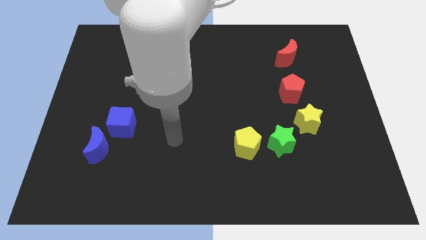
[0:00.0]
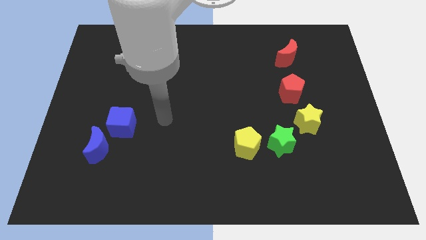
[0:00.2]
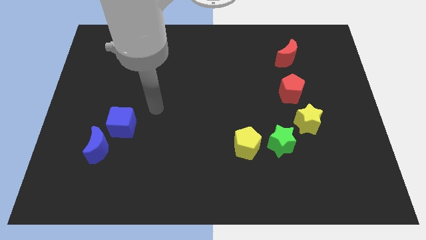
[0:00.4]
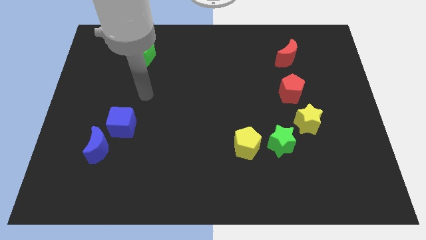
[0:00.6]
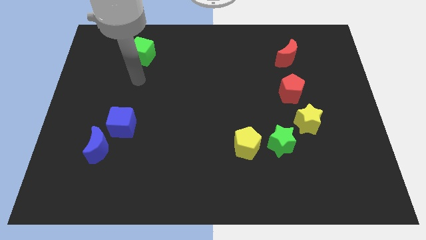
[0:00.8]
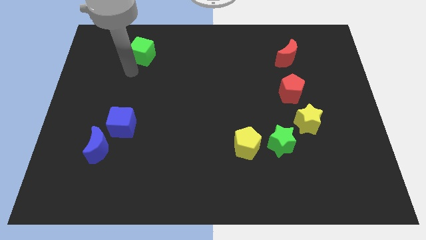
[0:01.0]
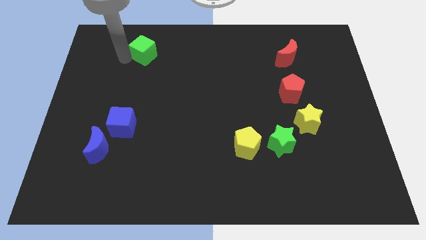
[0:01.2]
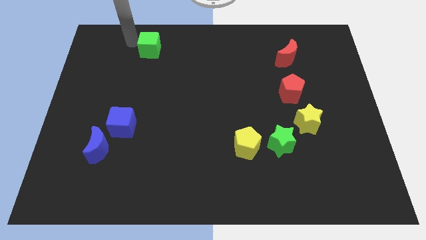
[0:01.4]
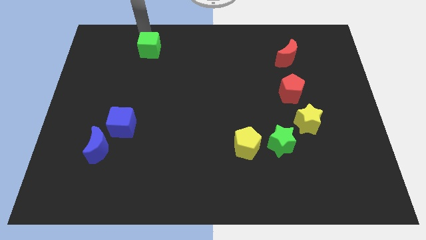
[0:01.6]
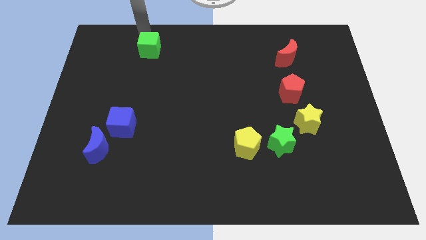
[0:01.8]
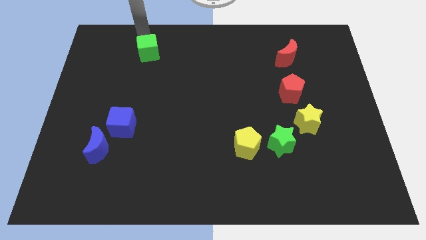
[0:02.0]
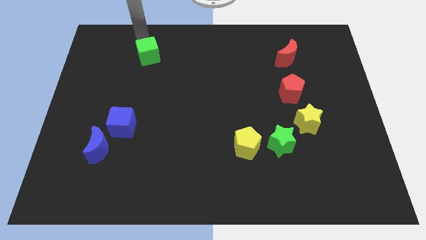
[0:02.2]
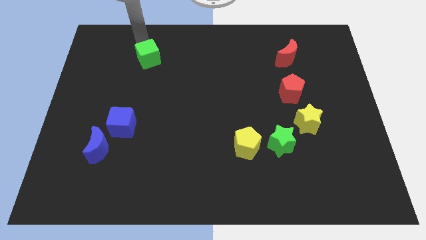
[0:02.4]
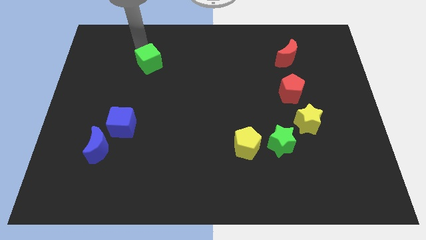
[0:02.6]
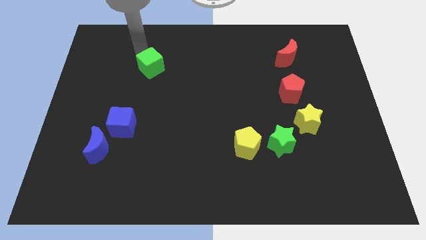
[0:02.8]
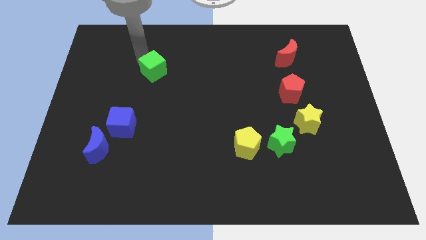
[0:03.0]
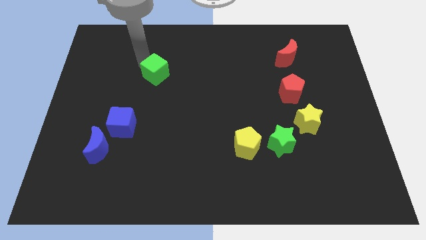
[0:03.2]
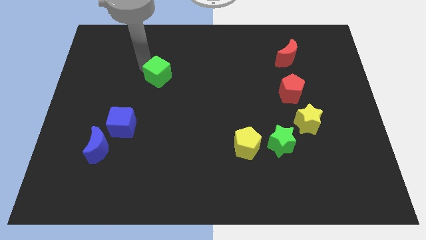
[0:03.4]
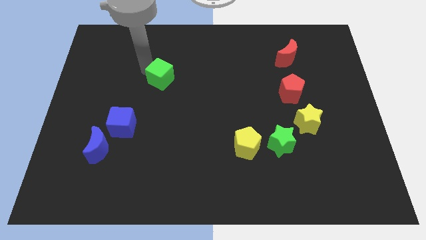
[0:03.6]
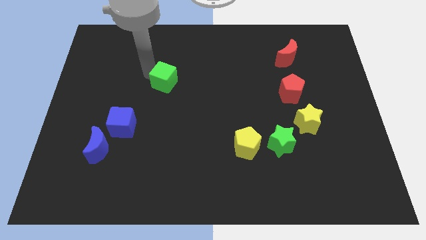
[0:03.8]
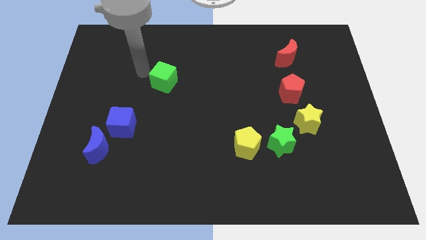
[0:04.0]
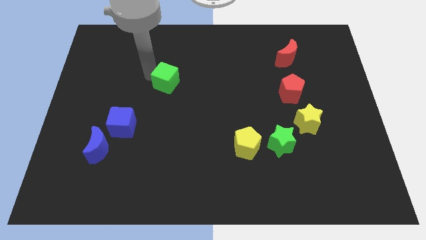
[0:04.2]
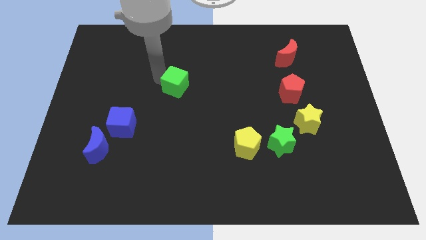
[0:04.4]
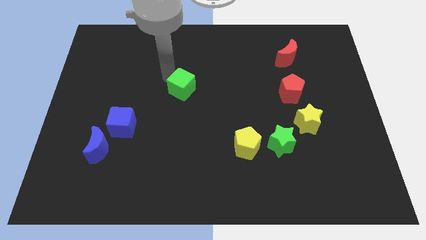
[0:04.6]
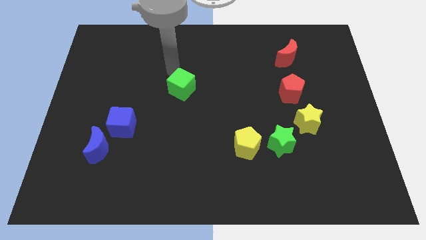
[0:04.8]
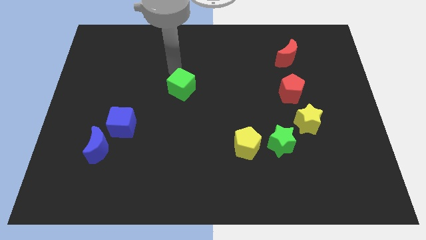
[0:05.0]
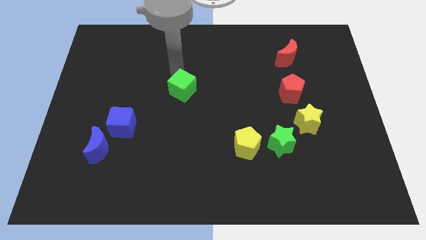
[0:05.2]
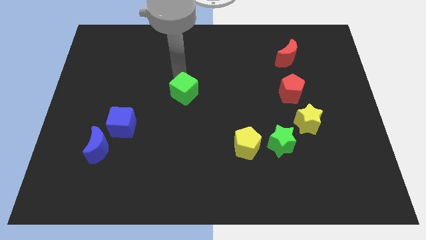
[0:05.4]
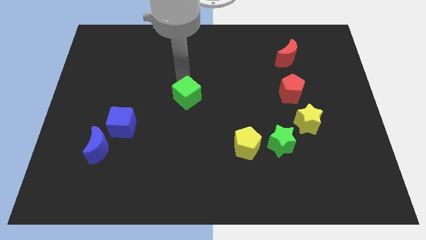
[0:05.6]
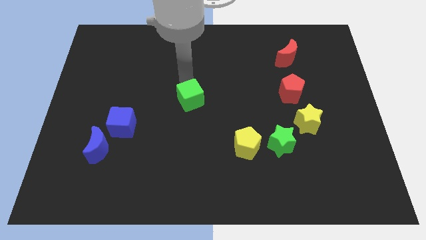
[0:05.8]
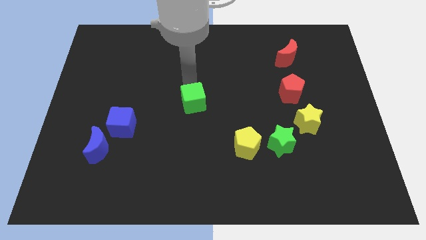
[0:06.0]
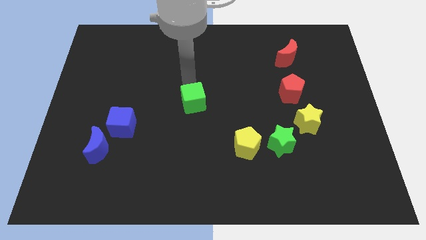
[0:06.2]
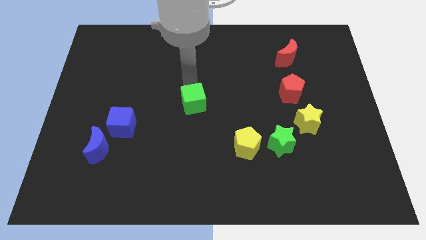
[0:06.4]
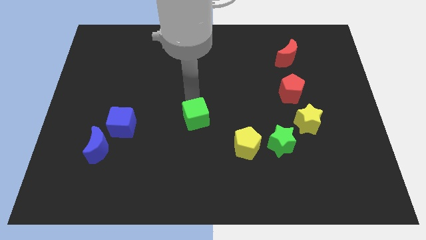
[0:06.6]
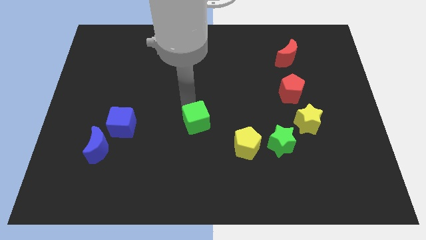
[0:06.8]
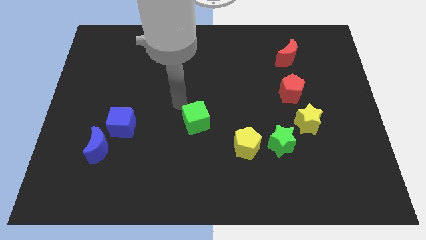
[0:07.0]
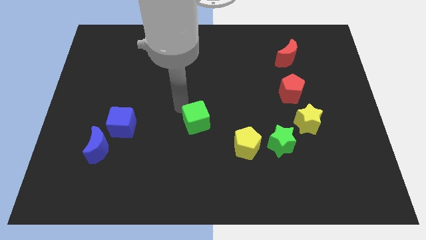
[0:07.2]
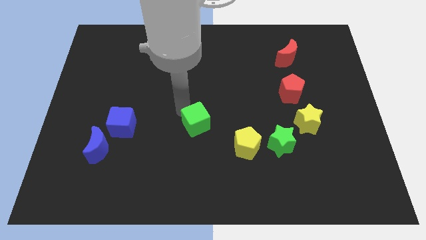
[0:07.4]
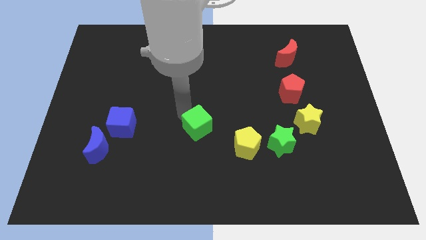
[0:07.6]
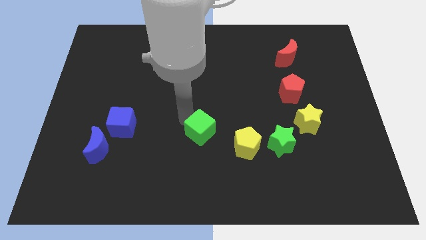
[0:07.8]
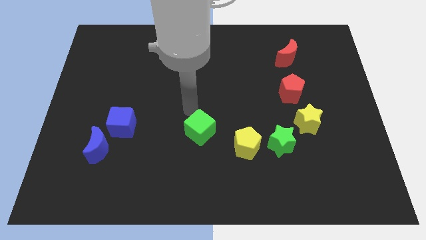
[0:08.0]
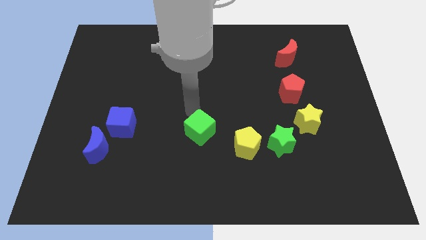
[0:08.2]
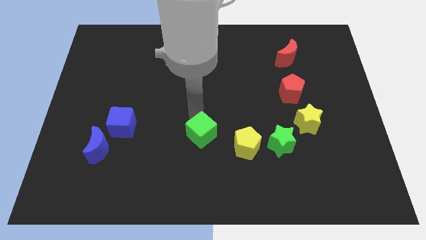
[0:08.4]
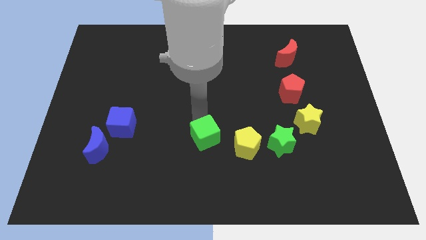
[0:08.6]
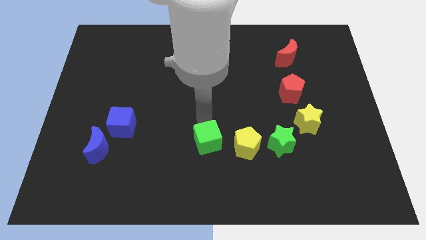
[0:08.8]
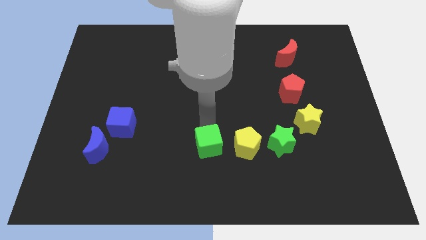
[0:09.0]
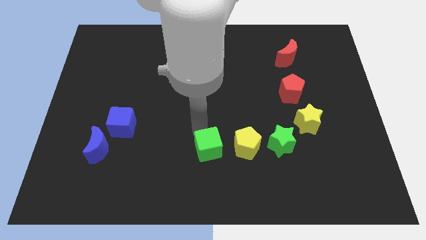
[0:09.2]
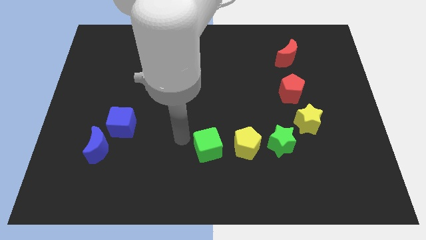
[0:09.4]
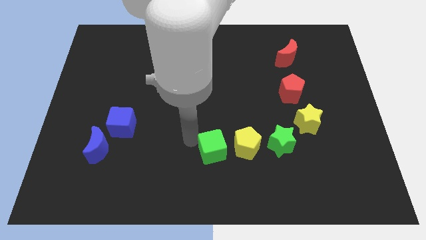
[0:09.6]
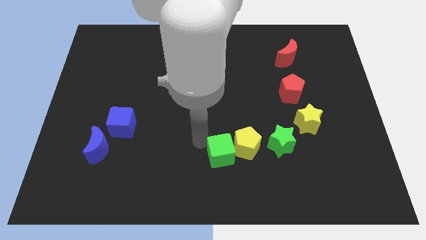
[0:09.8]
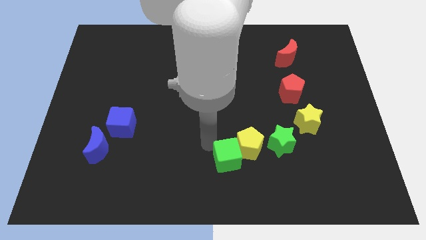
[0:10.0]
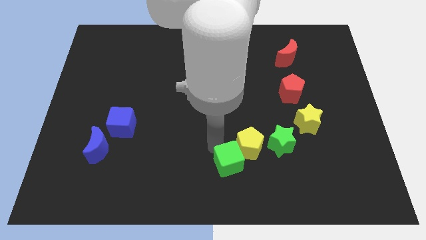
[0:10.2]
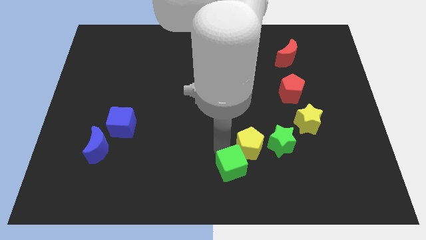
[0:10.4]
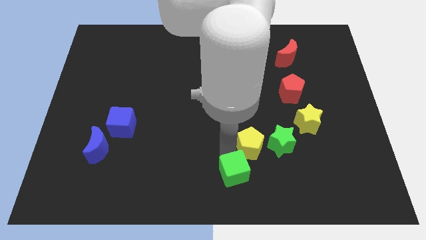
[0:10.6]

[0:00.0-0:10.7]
move the green cube to the bottom left of the green star

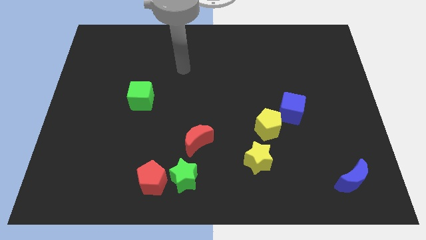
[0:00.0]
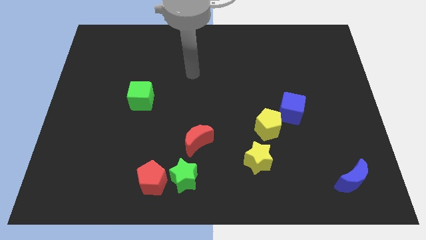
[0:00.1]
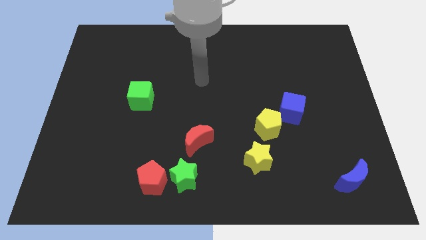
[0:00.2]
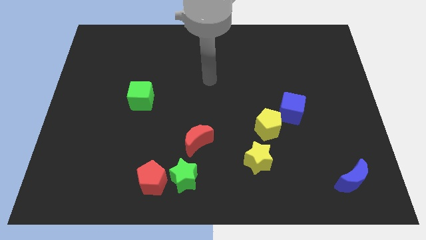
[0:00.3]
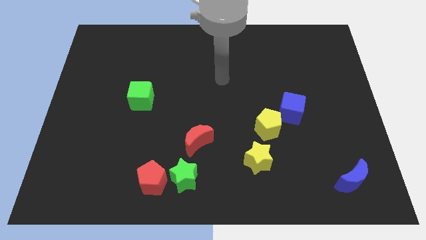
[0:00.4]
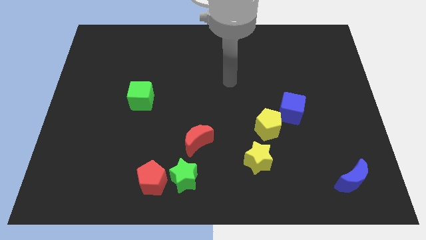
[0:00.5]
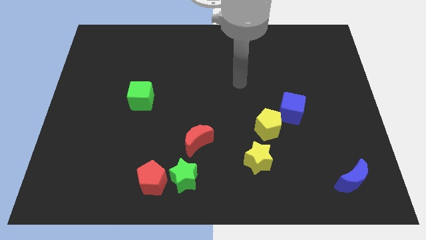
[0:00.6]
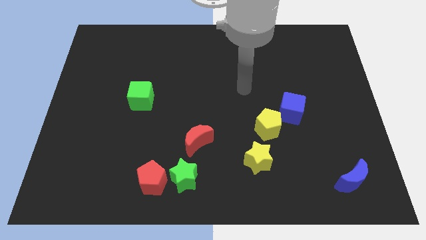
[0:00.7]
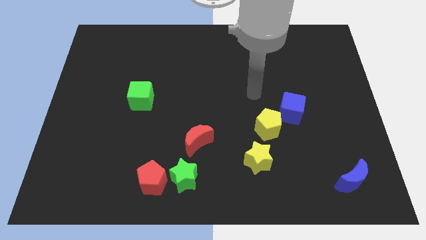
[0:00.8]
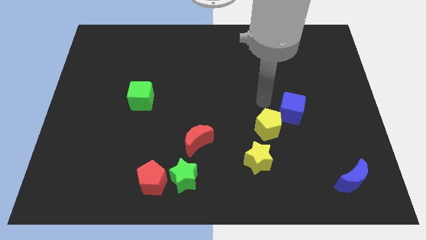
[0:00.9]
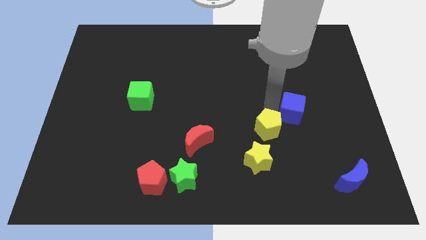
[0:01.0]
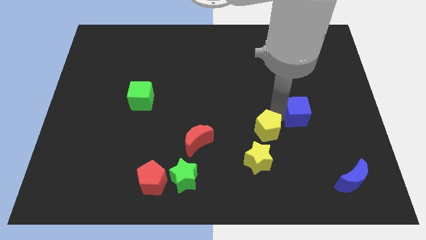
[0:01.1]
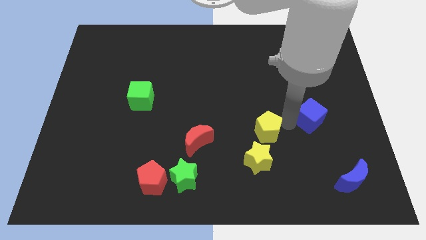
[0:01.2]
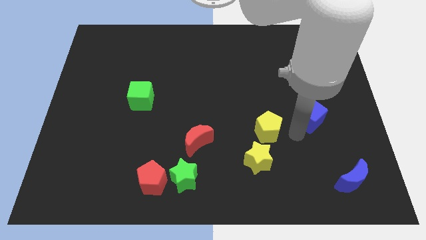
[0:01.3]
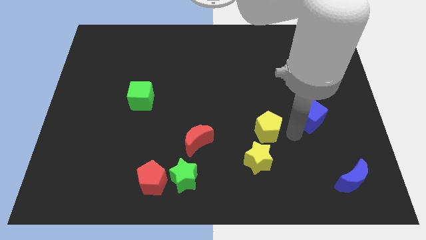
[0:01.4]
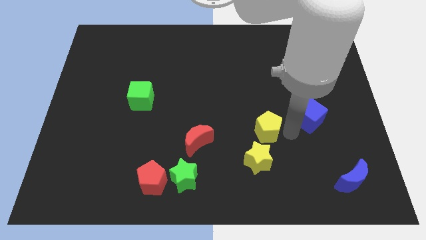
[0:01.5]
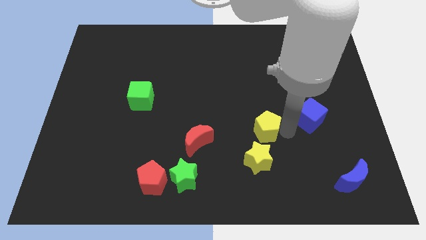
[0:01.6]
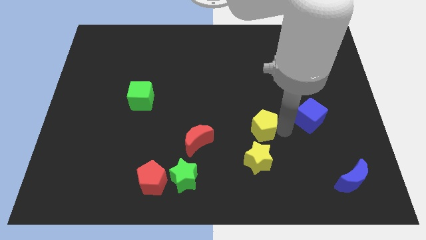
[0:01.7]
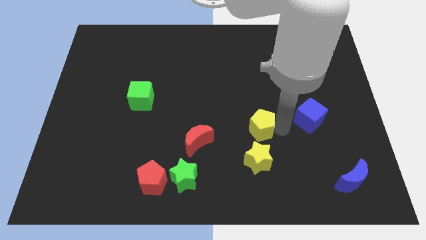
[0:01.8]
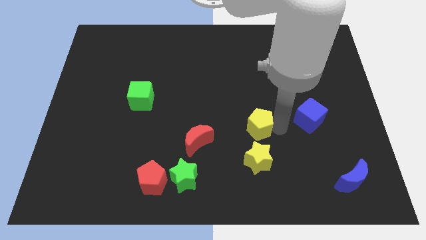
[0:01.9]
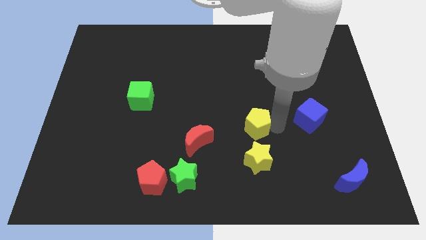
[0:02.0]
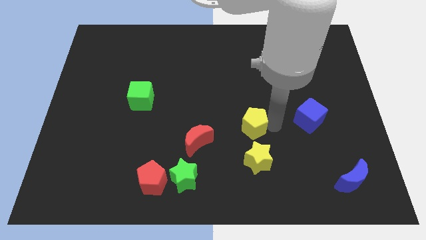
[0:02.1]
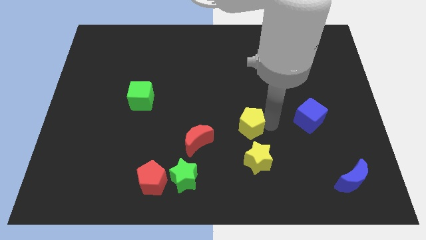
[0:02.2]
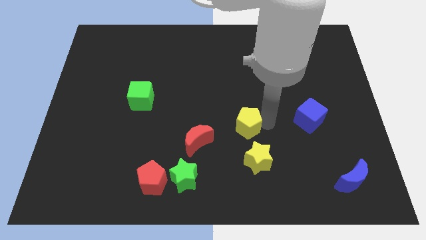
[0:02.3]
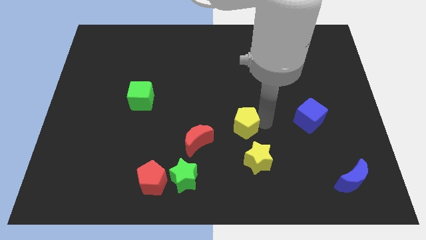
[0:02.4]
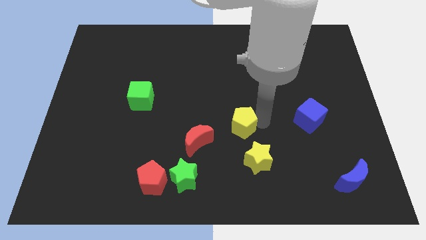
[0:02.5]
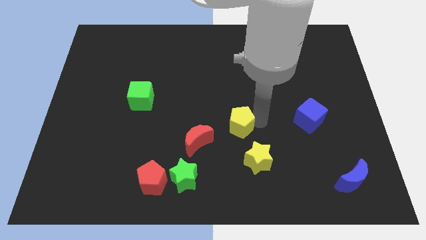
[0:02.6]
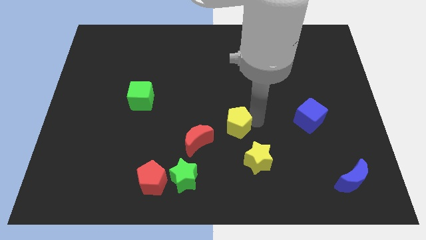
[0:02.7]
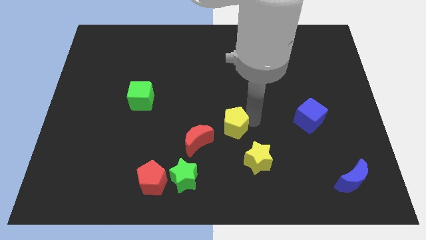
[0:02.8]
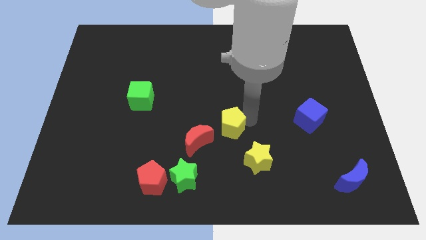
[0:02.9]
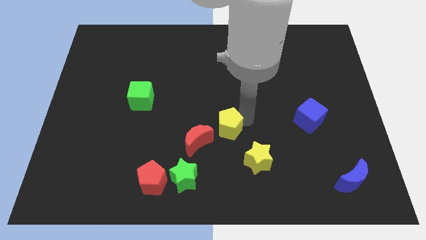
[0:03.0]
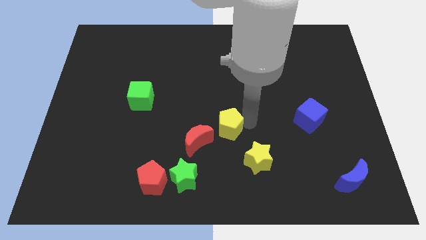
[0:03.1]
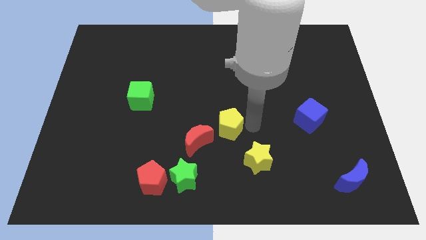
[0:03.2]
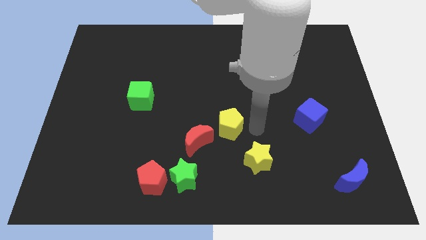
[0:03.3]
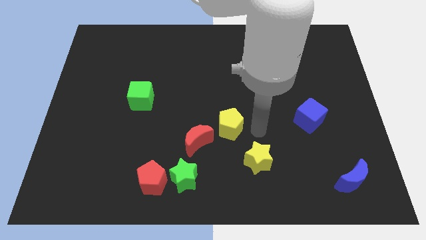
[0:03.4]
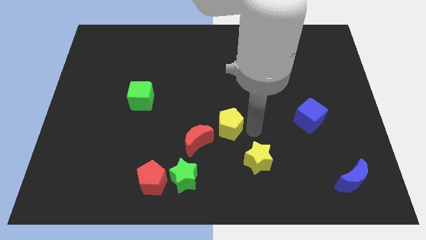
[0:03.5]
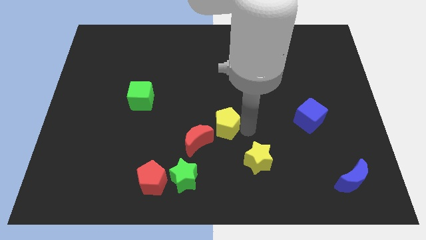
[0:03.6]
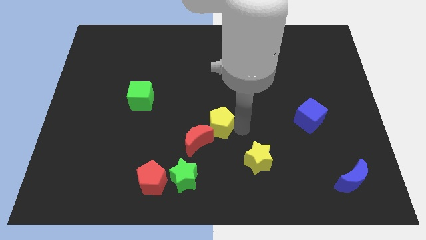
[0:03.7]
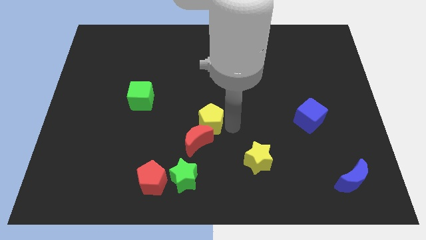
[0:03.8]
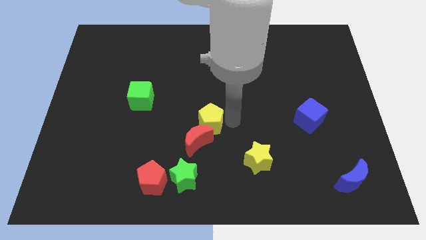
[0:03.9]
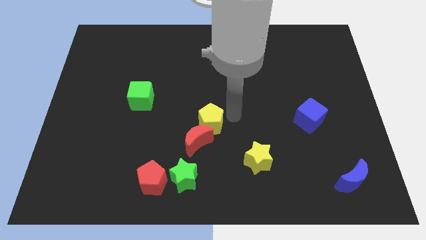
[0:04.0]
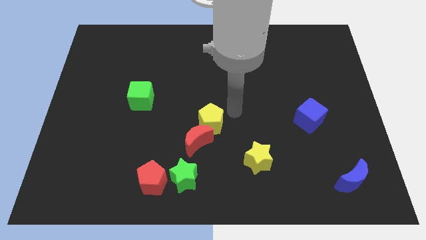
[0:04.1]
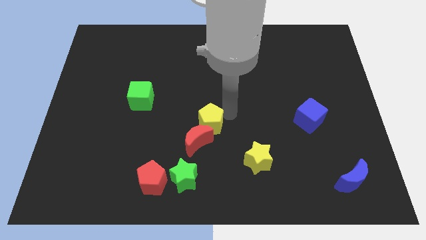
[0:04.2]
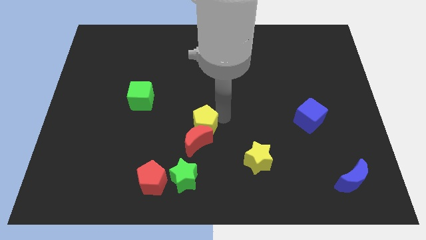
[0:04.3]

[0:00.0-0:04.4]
put the yellow pentagon above the green star
